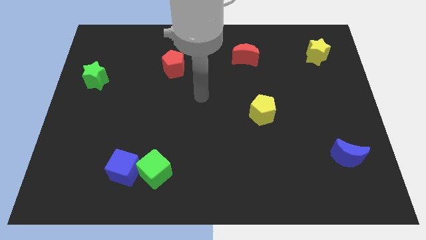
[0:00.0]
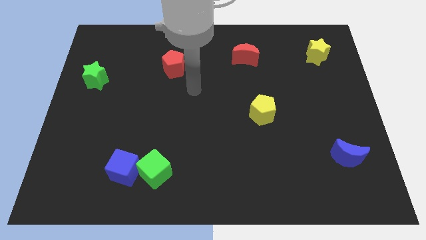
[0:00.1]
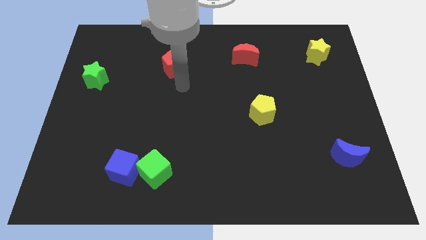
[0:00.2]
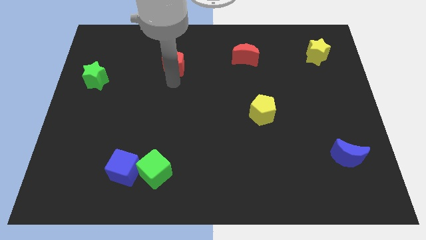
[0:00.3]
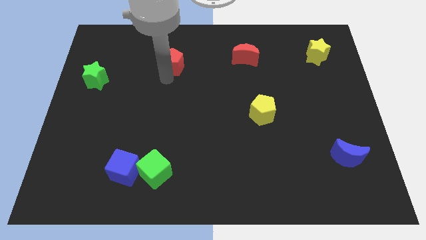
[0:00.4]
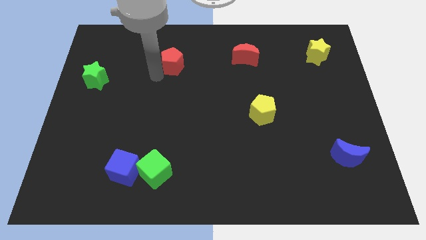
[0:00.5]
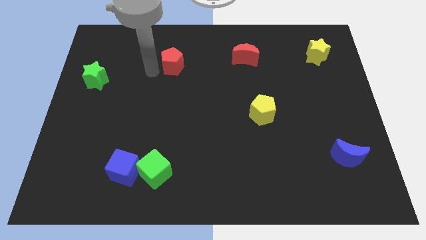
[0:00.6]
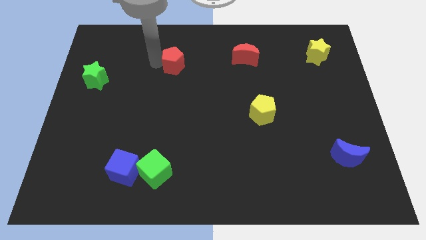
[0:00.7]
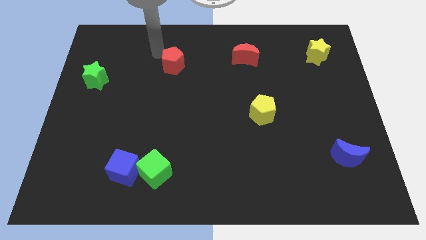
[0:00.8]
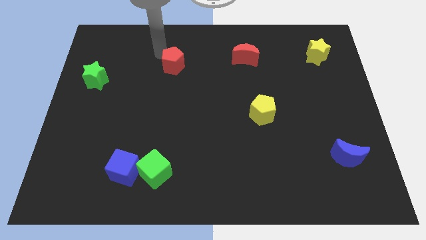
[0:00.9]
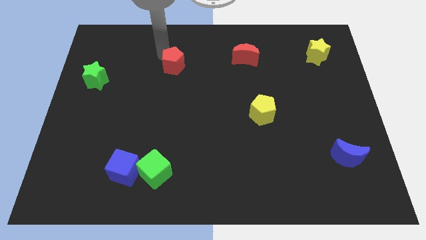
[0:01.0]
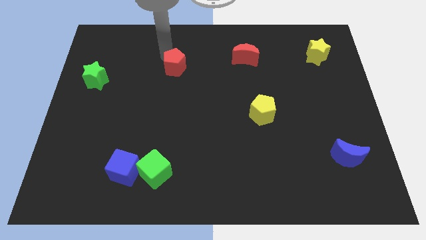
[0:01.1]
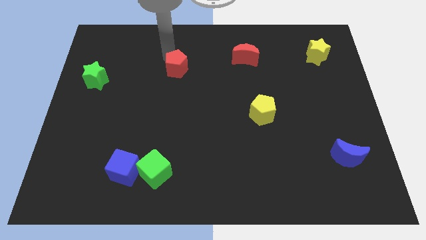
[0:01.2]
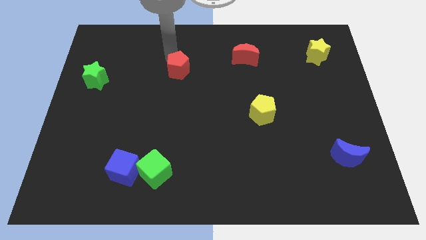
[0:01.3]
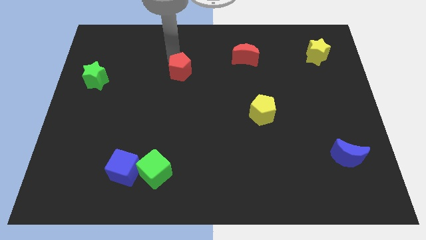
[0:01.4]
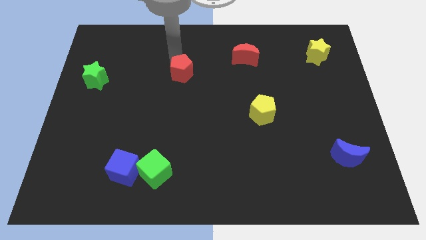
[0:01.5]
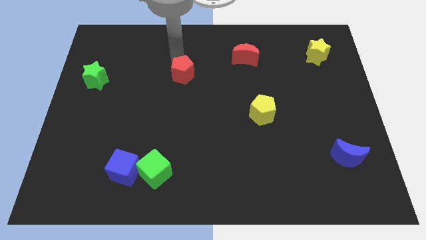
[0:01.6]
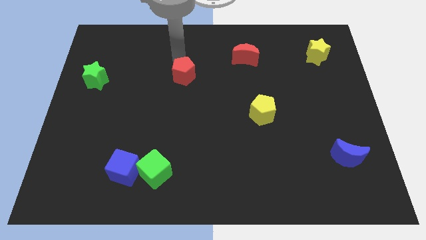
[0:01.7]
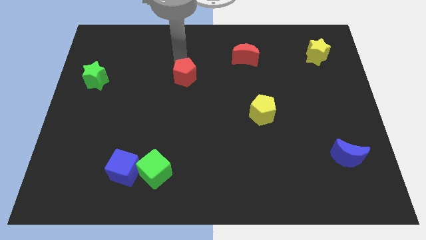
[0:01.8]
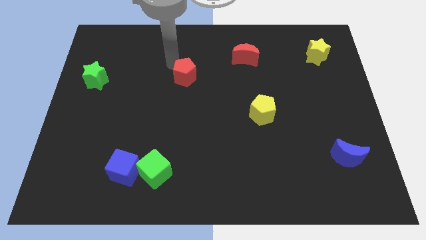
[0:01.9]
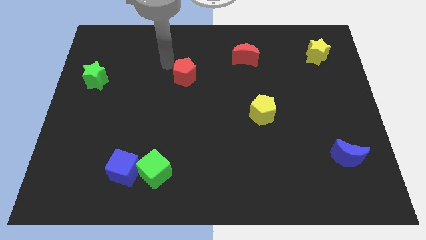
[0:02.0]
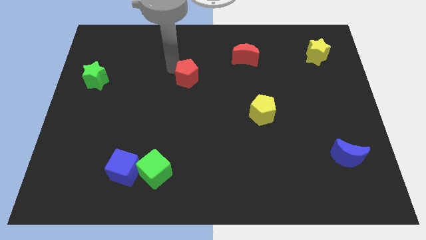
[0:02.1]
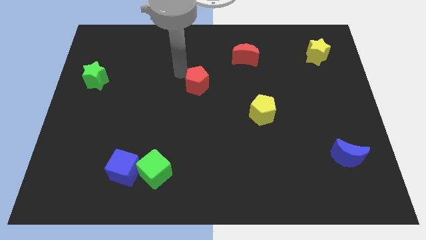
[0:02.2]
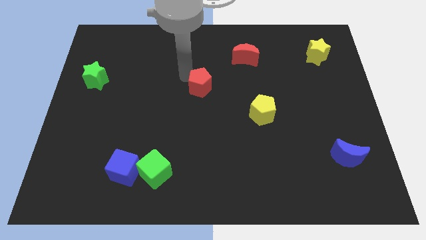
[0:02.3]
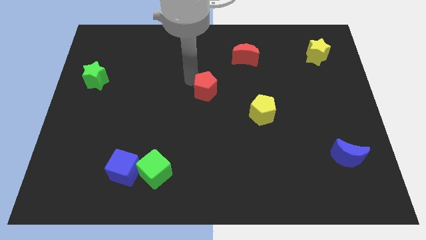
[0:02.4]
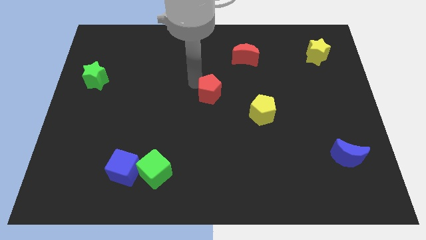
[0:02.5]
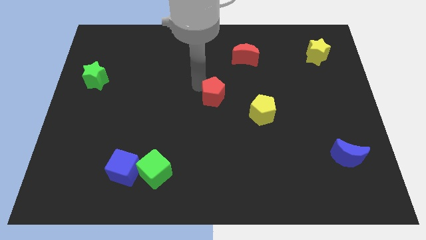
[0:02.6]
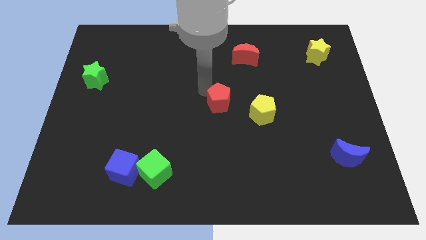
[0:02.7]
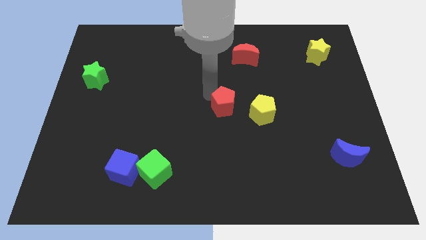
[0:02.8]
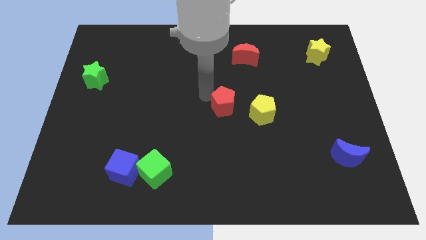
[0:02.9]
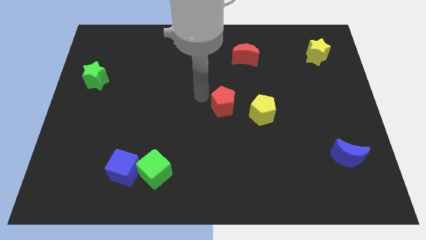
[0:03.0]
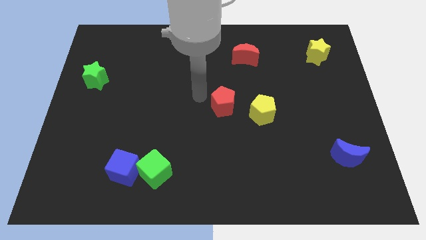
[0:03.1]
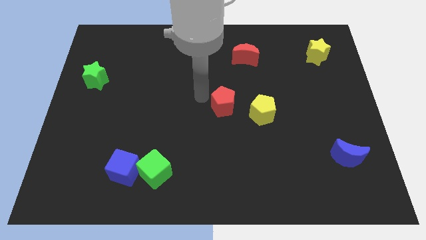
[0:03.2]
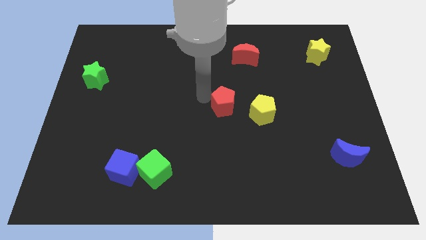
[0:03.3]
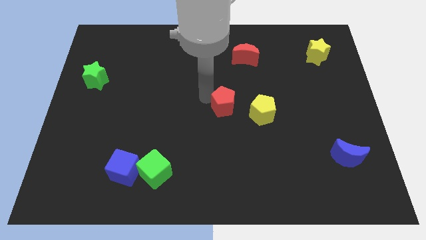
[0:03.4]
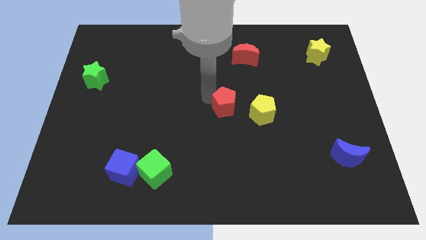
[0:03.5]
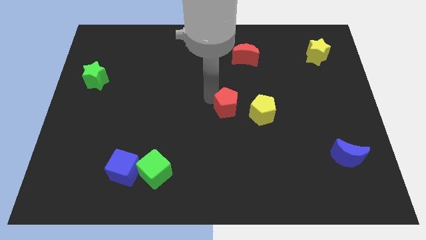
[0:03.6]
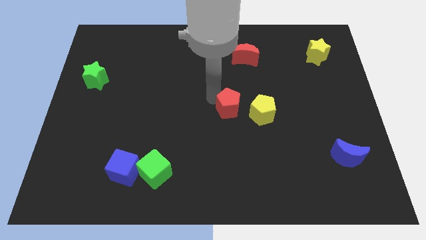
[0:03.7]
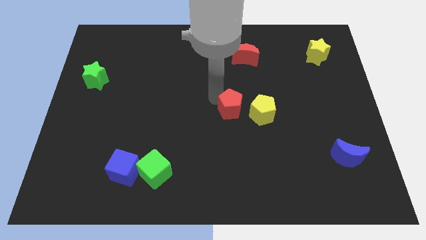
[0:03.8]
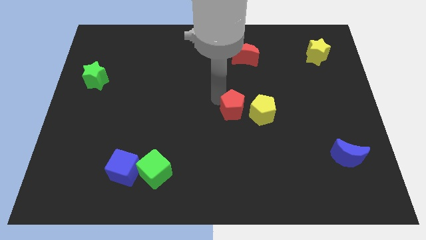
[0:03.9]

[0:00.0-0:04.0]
move the red pentagon downwards and right

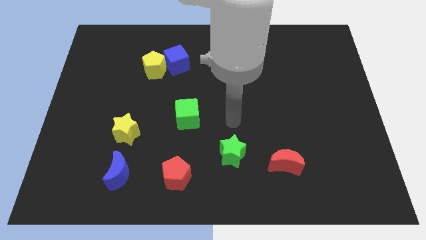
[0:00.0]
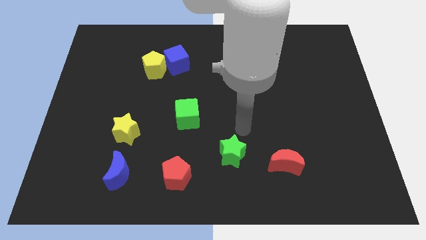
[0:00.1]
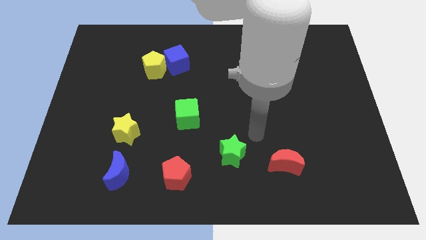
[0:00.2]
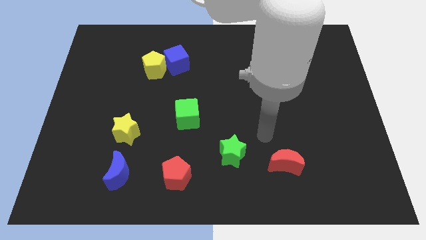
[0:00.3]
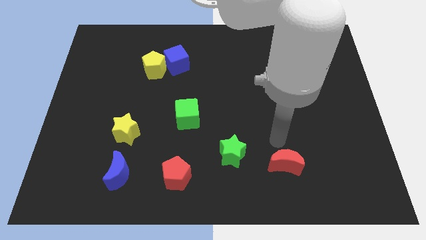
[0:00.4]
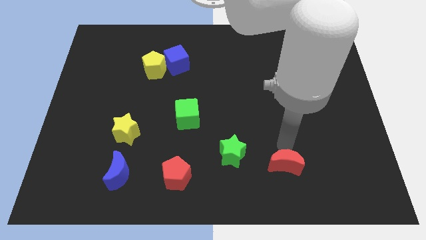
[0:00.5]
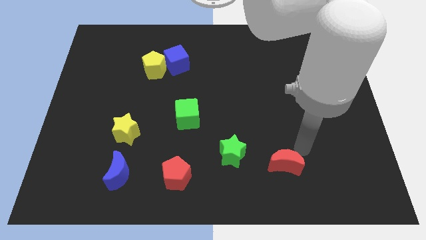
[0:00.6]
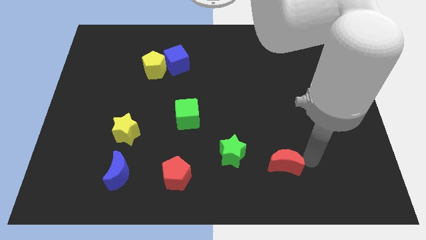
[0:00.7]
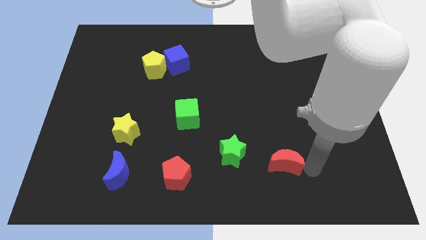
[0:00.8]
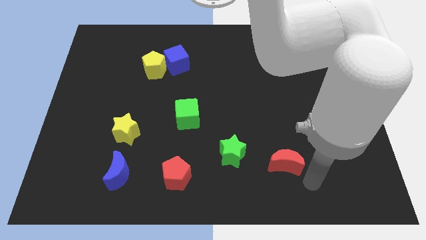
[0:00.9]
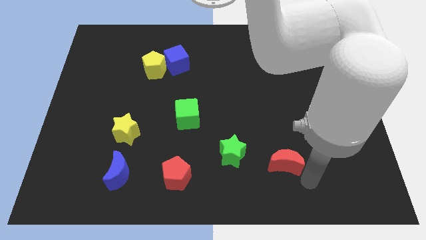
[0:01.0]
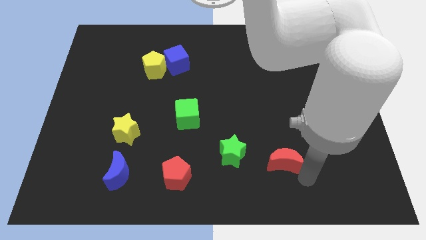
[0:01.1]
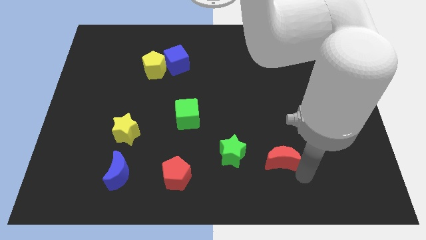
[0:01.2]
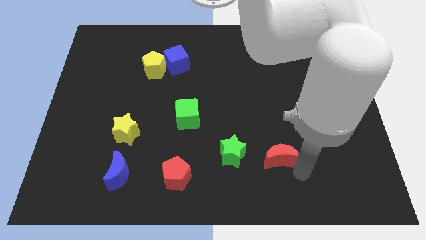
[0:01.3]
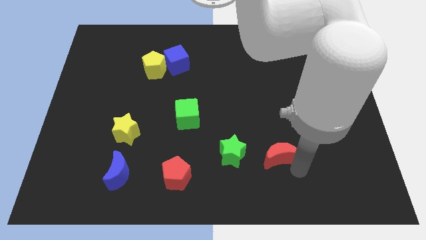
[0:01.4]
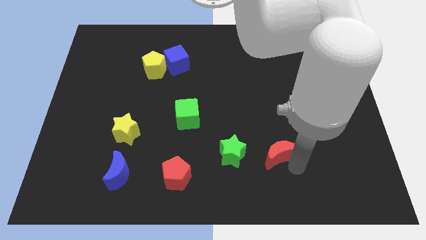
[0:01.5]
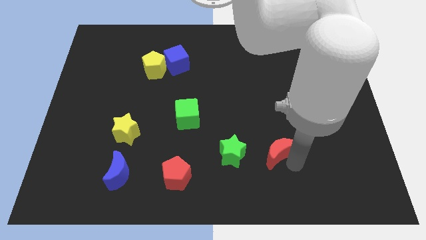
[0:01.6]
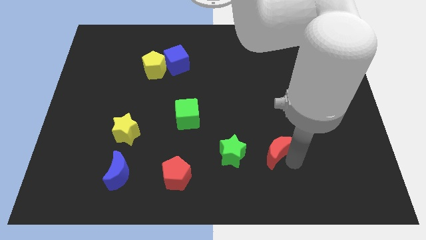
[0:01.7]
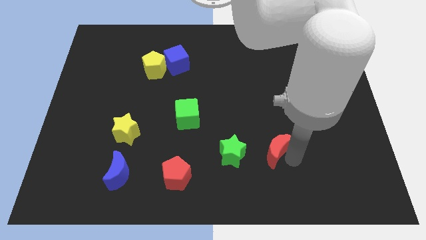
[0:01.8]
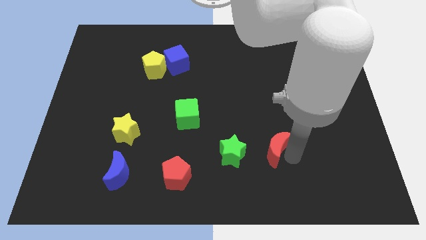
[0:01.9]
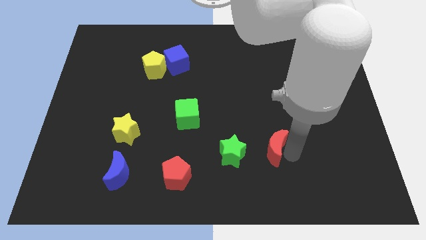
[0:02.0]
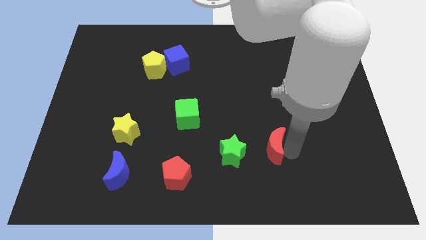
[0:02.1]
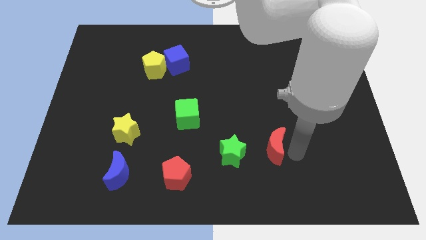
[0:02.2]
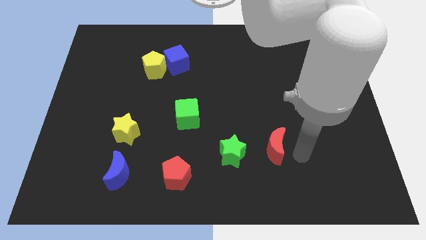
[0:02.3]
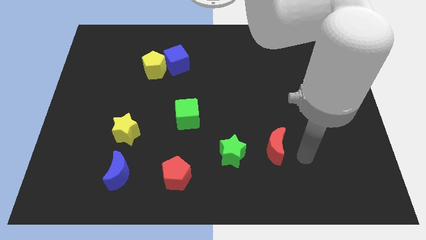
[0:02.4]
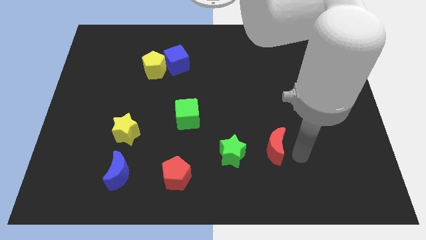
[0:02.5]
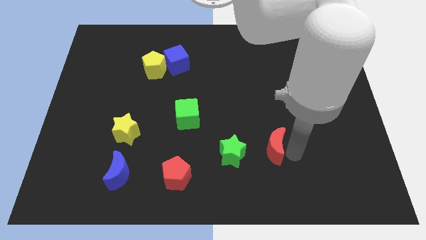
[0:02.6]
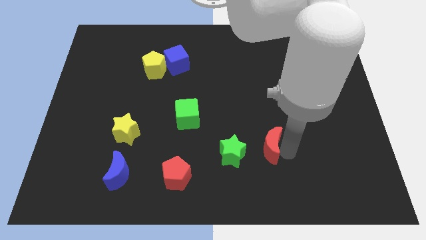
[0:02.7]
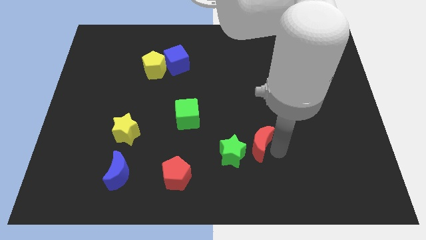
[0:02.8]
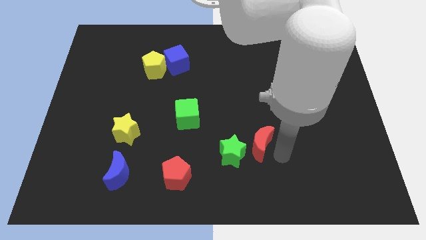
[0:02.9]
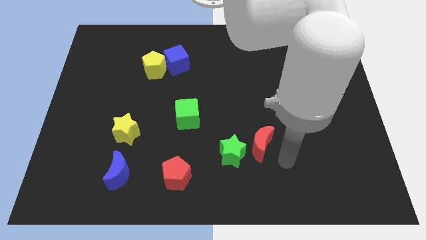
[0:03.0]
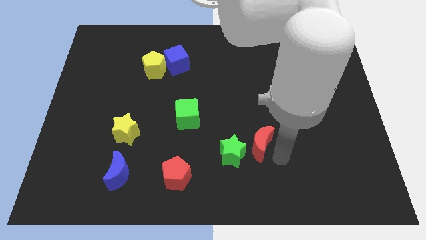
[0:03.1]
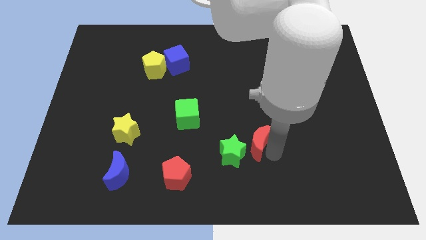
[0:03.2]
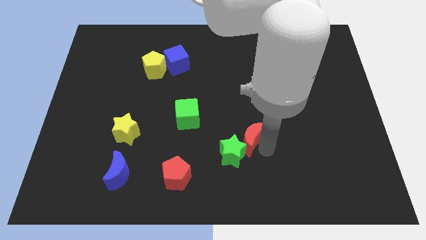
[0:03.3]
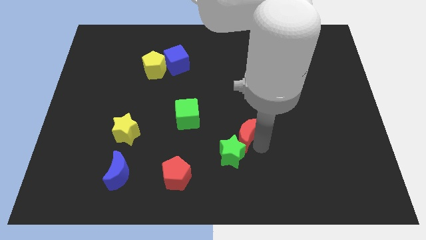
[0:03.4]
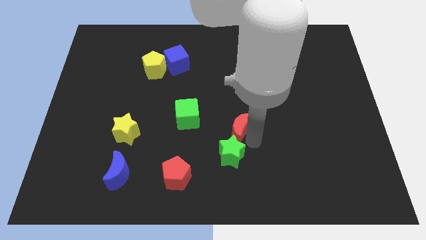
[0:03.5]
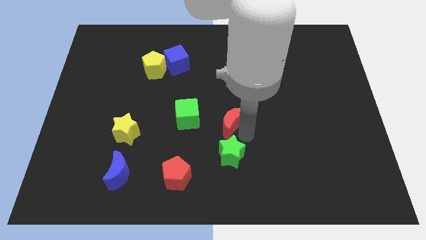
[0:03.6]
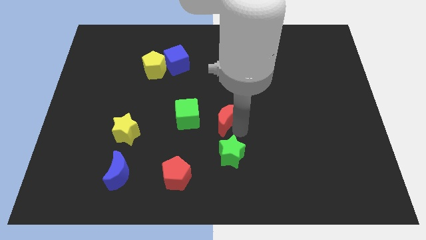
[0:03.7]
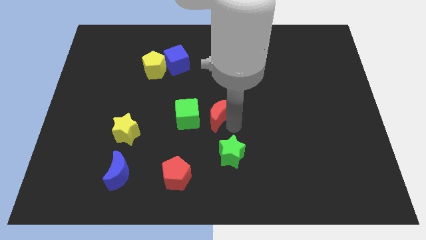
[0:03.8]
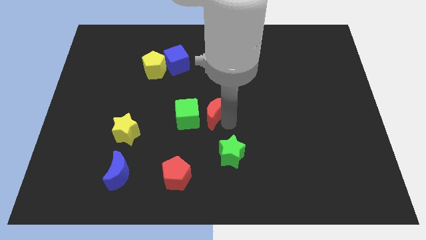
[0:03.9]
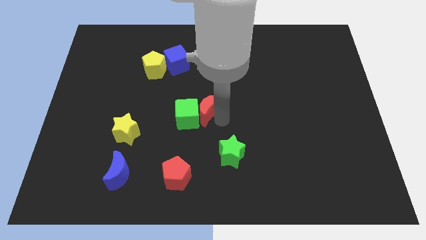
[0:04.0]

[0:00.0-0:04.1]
slide the red moon upwards and left
